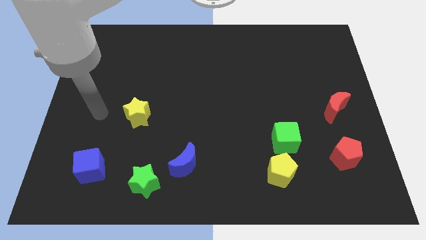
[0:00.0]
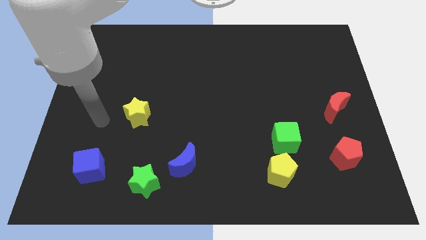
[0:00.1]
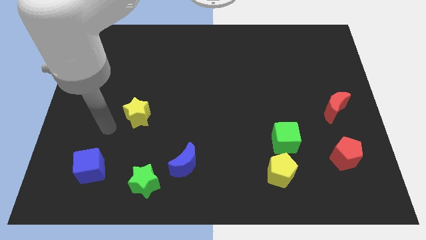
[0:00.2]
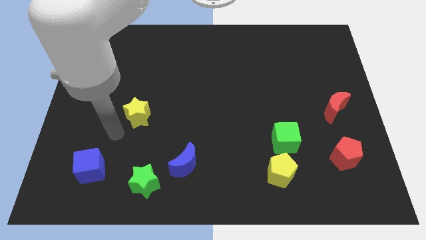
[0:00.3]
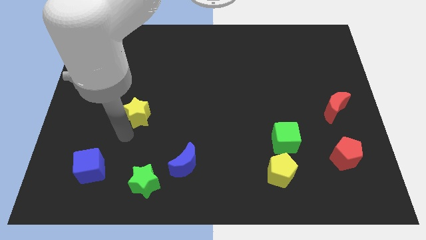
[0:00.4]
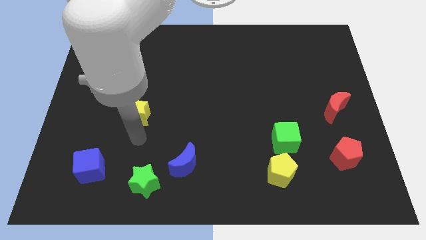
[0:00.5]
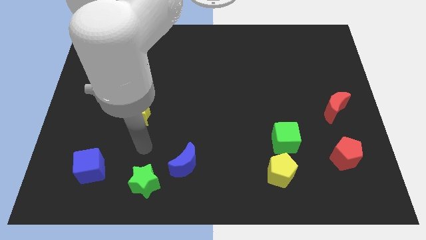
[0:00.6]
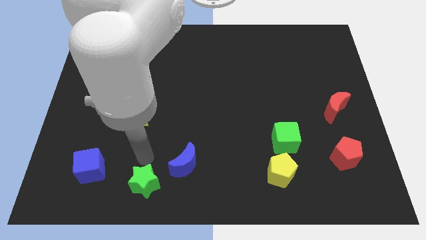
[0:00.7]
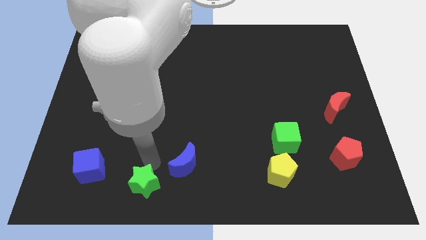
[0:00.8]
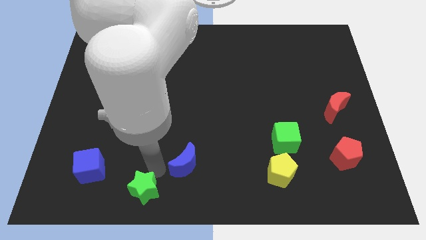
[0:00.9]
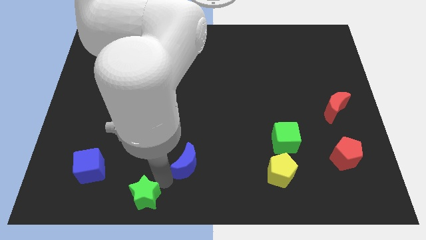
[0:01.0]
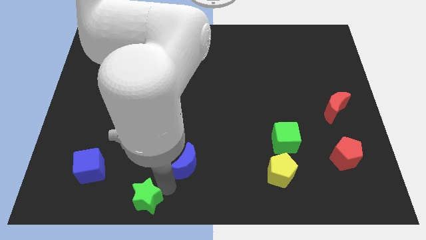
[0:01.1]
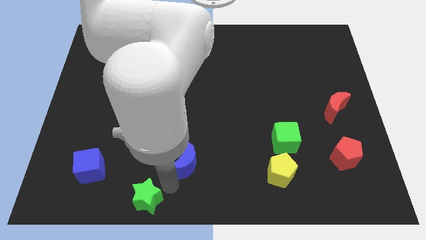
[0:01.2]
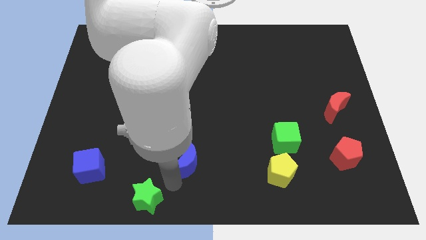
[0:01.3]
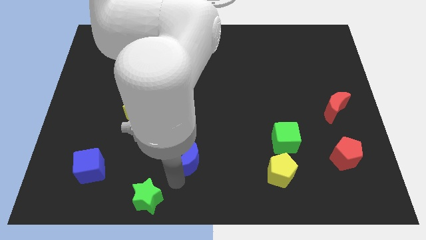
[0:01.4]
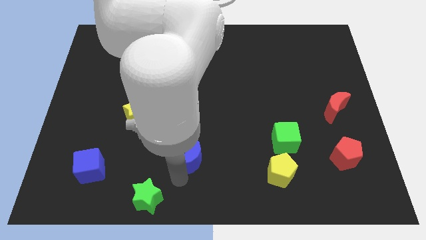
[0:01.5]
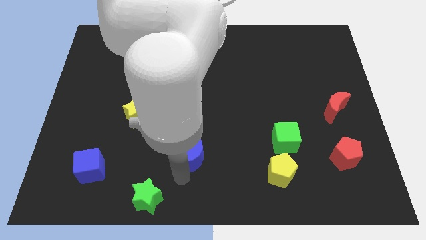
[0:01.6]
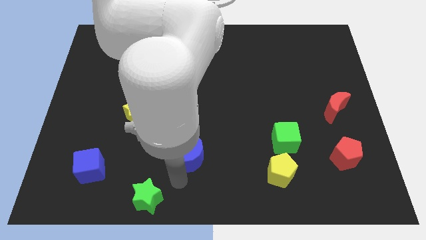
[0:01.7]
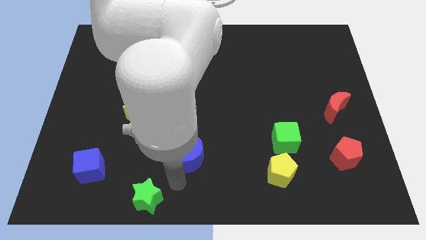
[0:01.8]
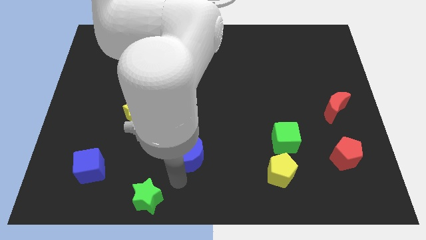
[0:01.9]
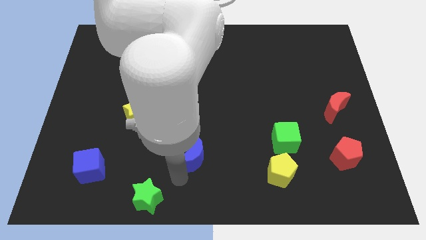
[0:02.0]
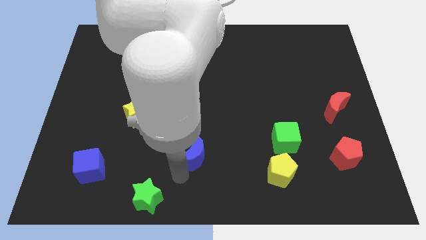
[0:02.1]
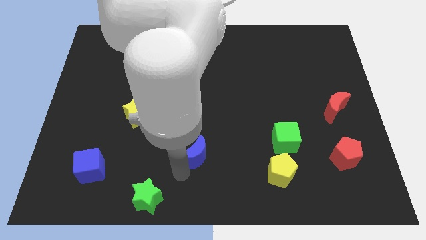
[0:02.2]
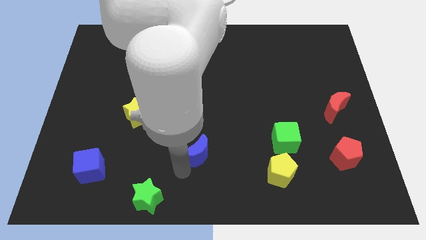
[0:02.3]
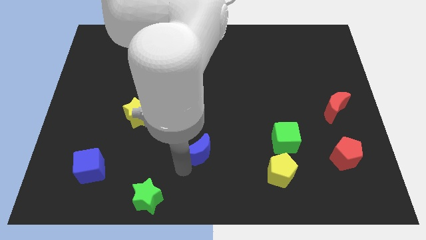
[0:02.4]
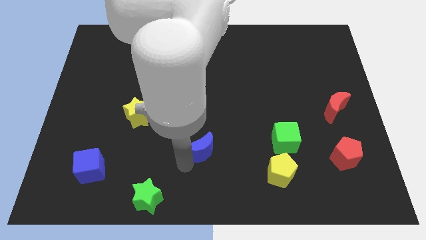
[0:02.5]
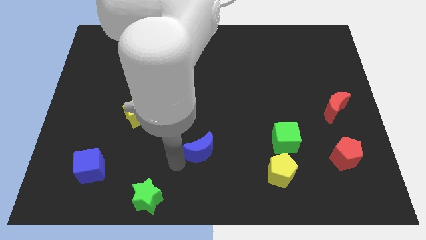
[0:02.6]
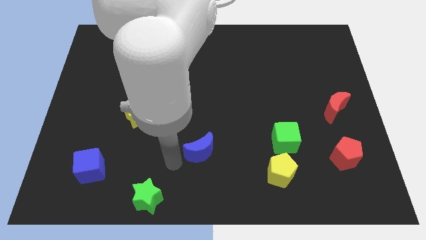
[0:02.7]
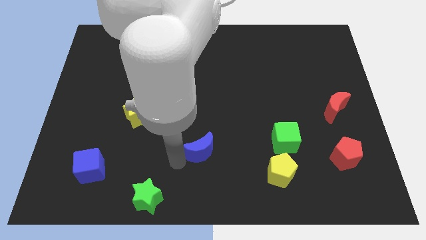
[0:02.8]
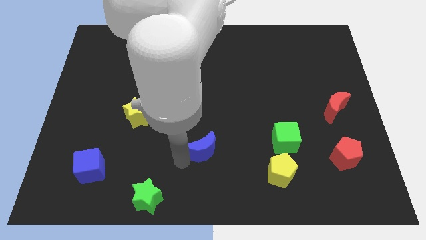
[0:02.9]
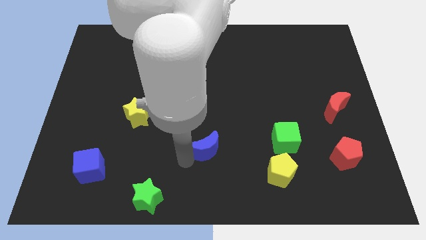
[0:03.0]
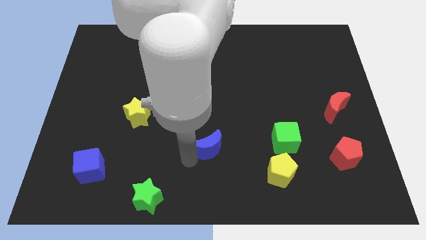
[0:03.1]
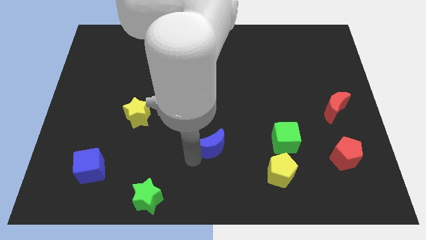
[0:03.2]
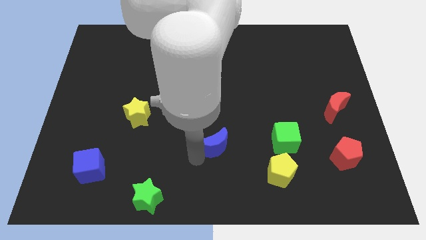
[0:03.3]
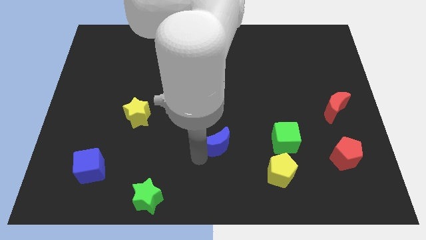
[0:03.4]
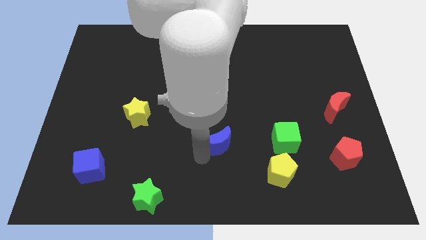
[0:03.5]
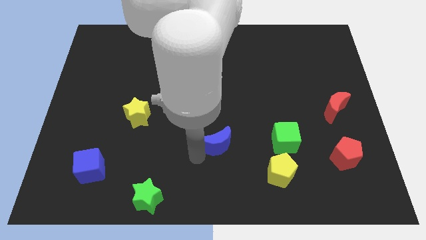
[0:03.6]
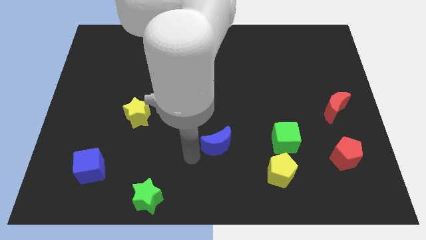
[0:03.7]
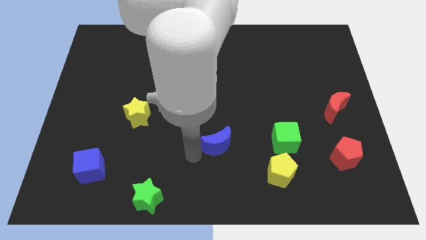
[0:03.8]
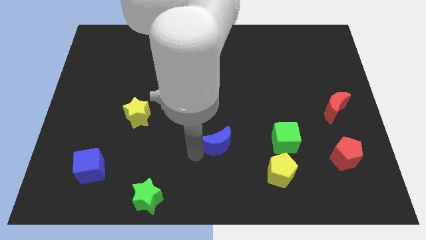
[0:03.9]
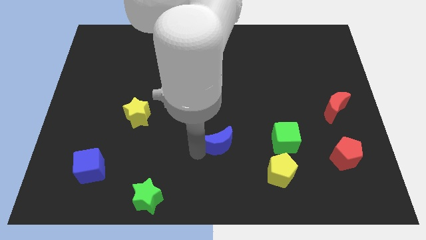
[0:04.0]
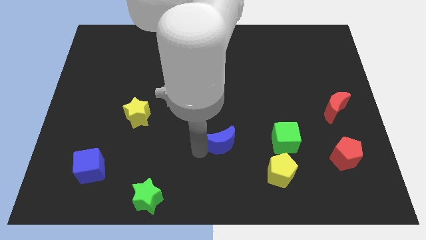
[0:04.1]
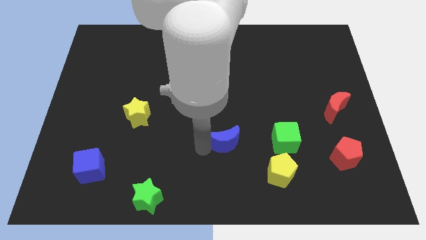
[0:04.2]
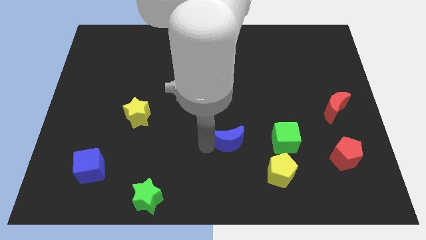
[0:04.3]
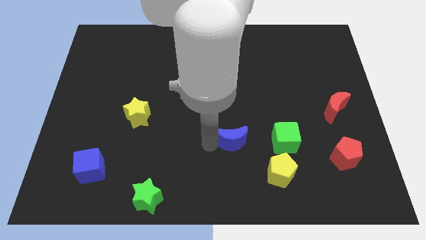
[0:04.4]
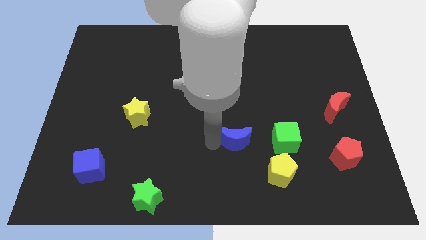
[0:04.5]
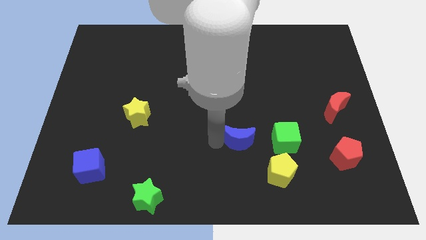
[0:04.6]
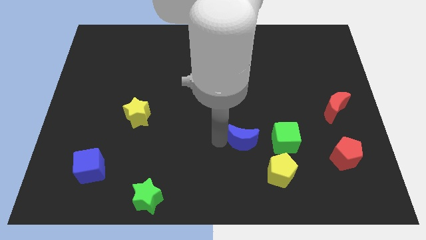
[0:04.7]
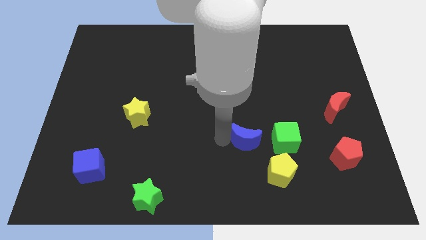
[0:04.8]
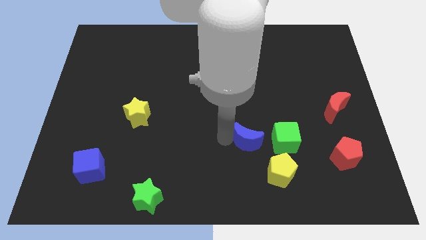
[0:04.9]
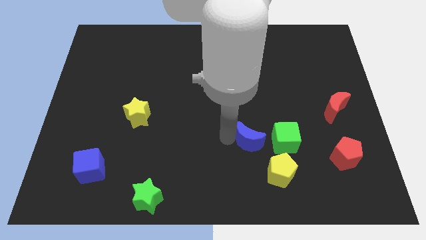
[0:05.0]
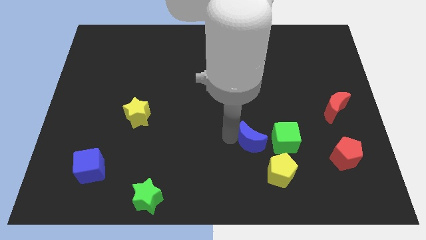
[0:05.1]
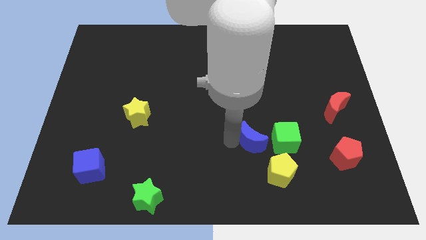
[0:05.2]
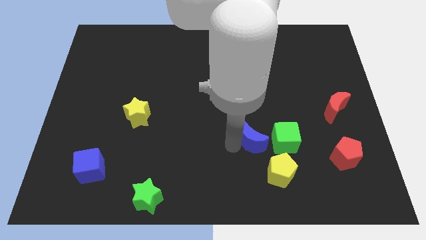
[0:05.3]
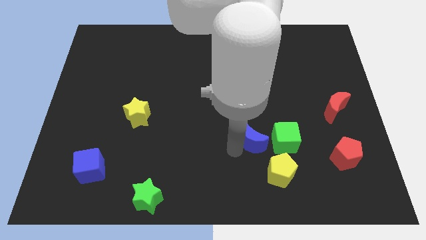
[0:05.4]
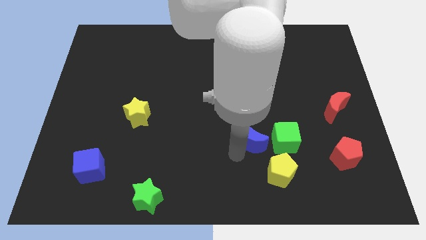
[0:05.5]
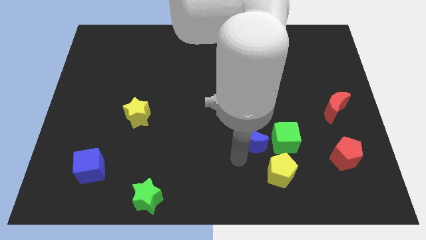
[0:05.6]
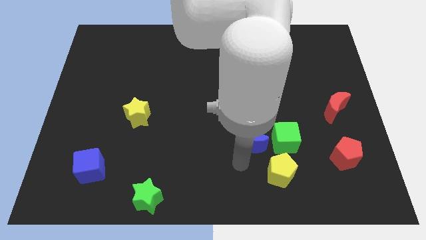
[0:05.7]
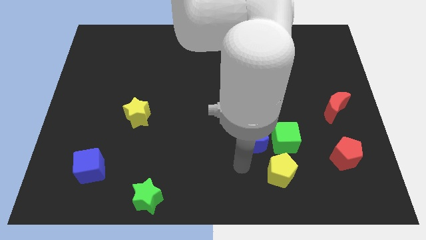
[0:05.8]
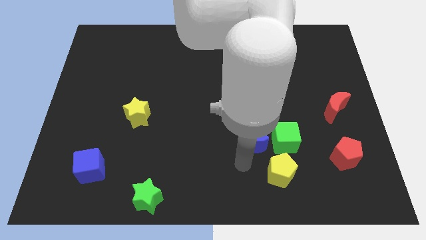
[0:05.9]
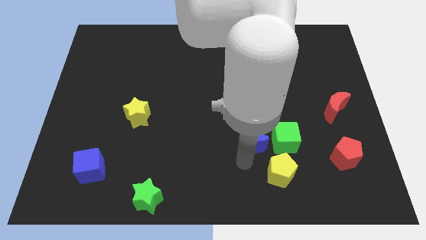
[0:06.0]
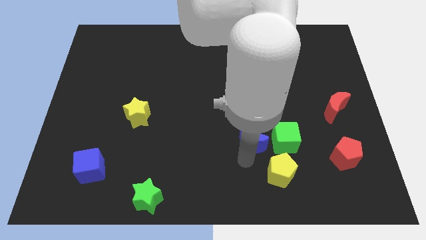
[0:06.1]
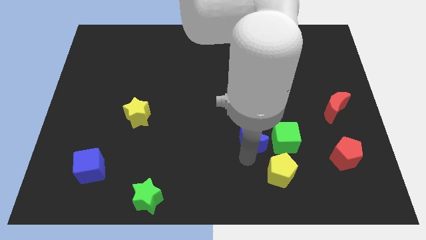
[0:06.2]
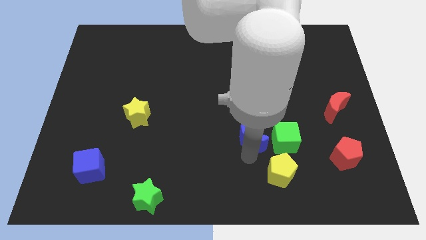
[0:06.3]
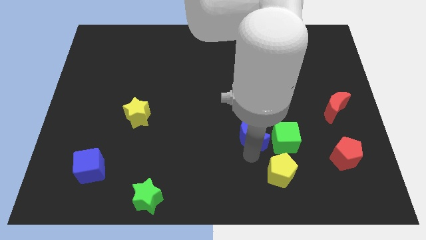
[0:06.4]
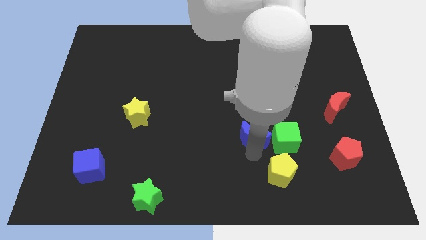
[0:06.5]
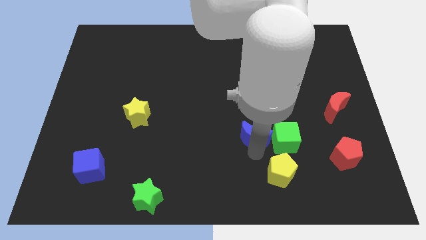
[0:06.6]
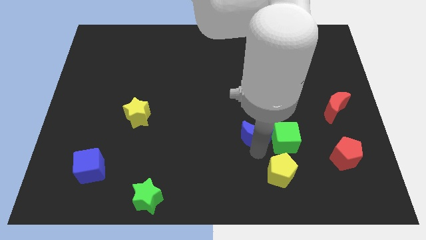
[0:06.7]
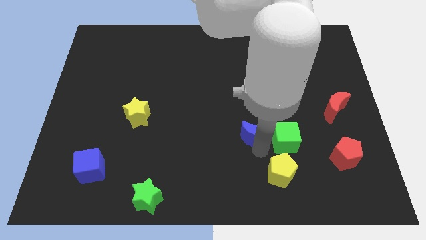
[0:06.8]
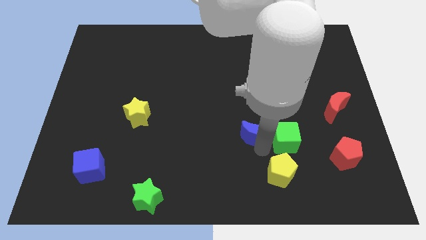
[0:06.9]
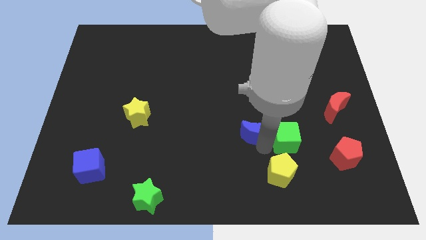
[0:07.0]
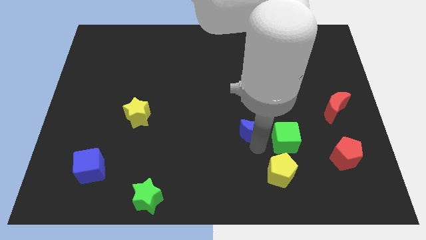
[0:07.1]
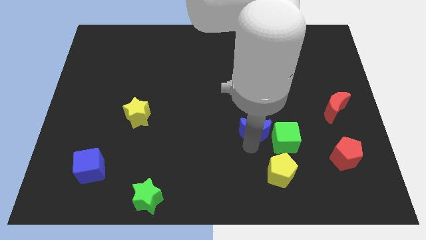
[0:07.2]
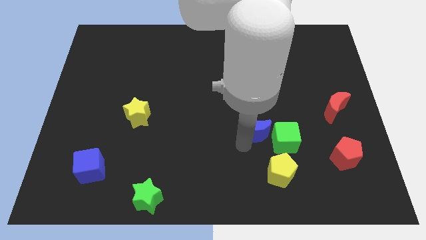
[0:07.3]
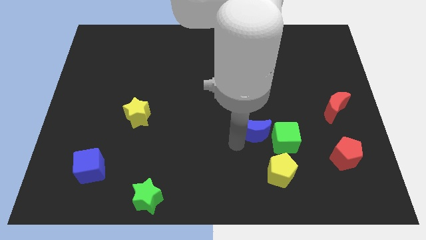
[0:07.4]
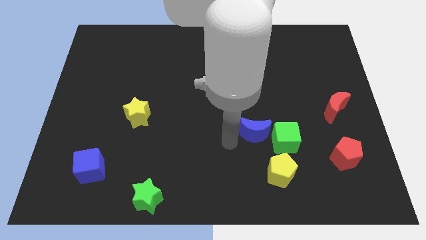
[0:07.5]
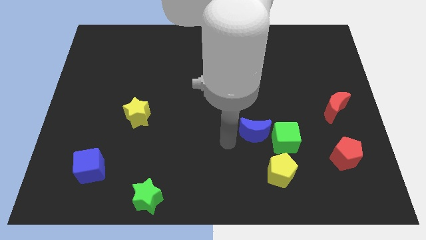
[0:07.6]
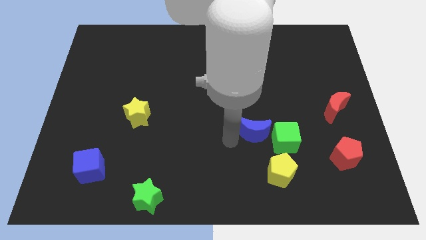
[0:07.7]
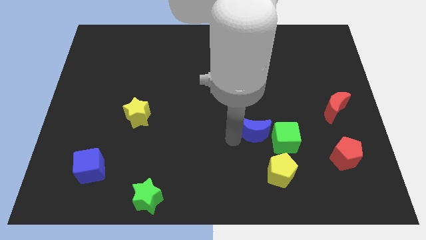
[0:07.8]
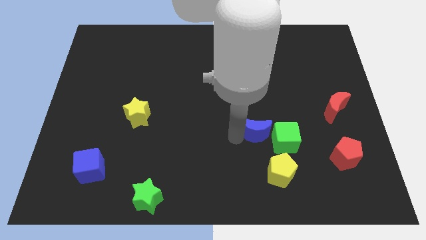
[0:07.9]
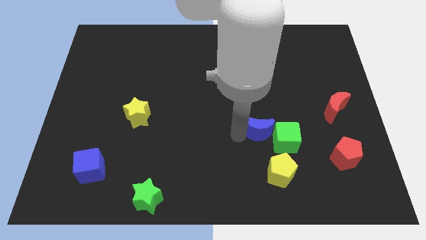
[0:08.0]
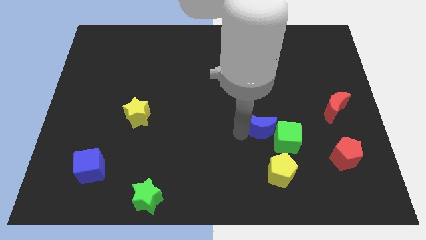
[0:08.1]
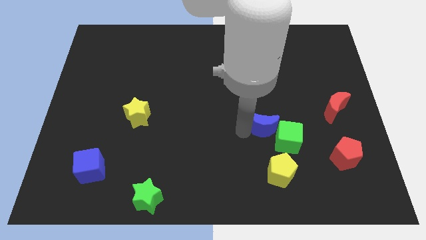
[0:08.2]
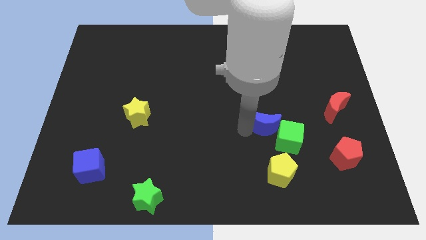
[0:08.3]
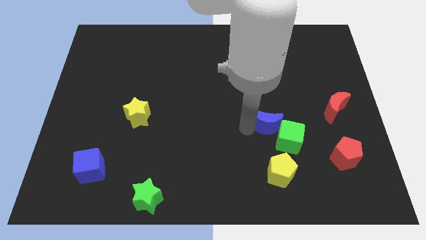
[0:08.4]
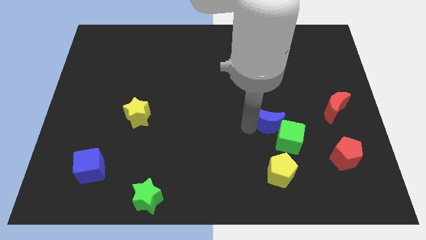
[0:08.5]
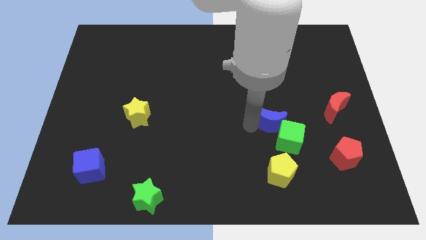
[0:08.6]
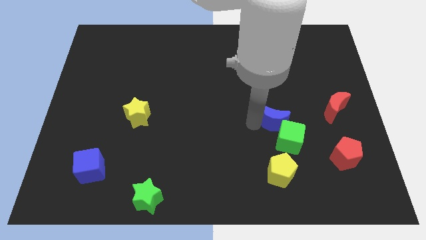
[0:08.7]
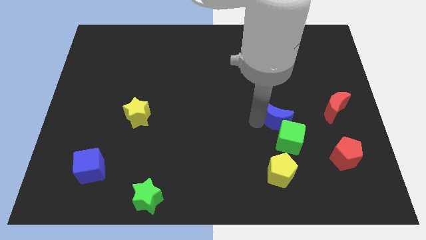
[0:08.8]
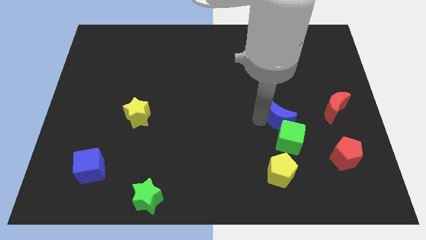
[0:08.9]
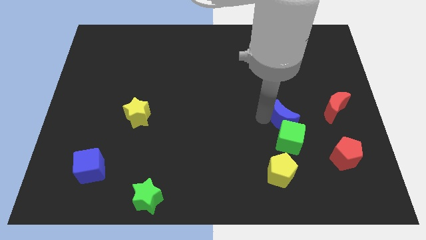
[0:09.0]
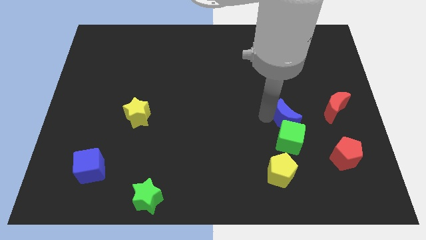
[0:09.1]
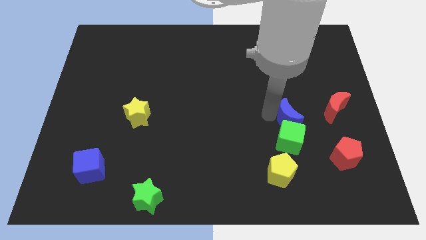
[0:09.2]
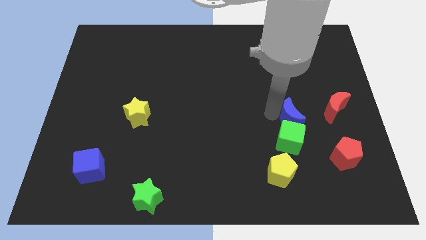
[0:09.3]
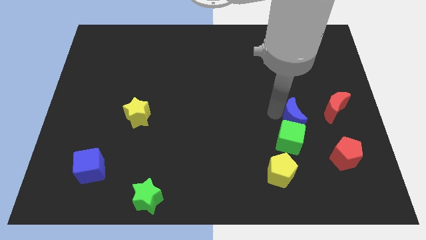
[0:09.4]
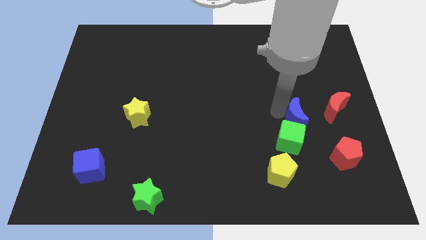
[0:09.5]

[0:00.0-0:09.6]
put the blue moon to the bottom left side of the red moon
